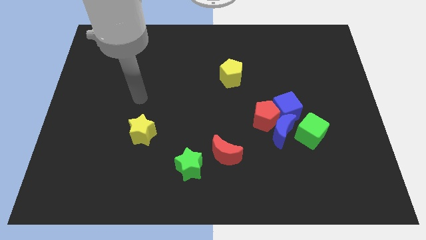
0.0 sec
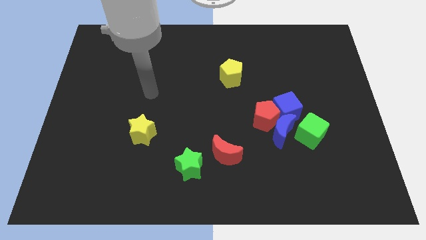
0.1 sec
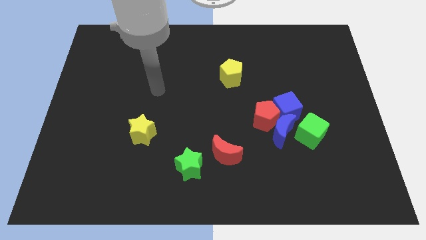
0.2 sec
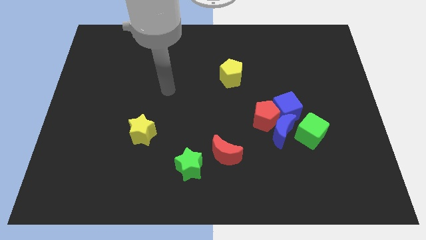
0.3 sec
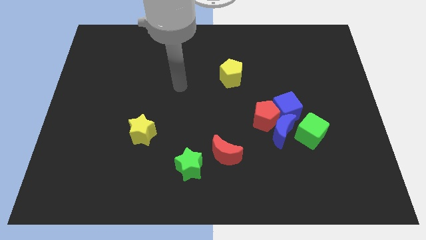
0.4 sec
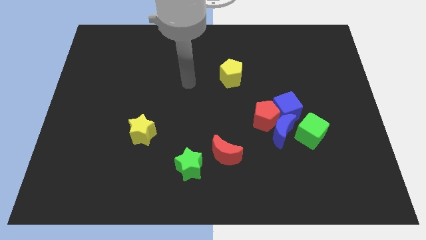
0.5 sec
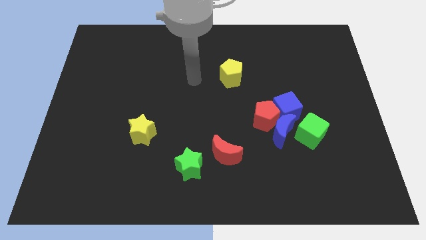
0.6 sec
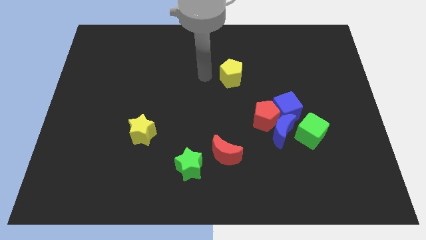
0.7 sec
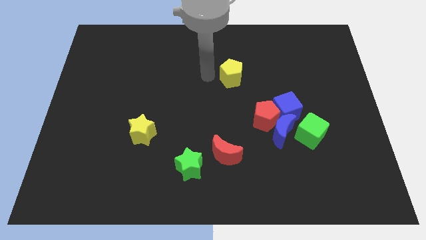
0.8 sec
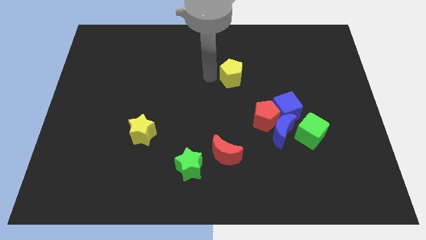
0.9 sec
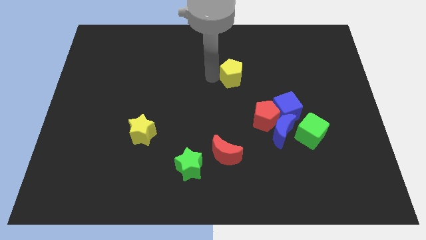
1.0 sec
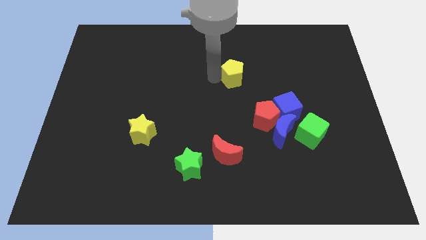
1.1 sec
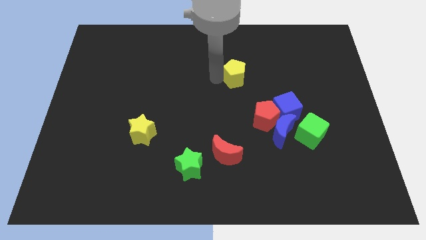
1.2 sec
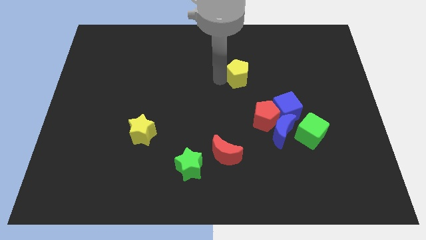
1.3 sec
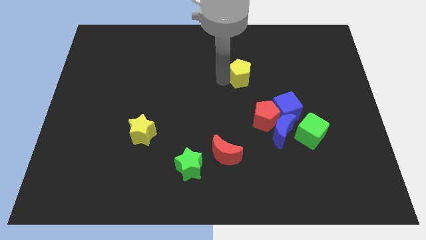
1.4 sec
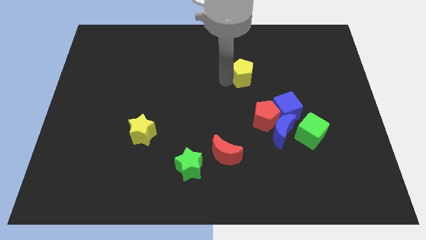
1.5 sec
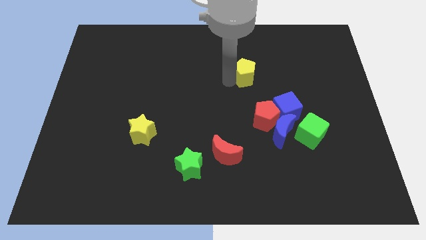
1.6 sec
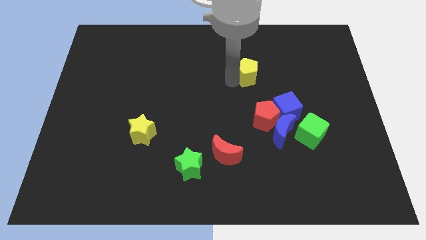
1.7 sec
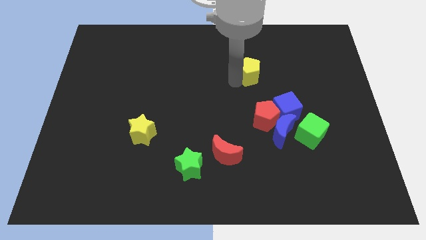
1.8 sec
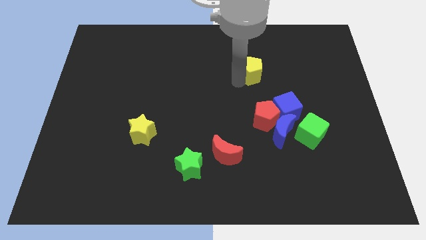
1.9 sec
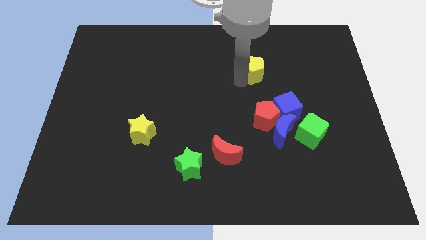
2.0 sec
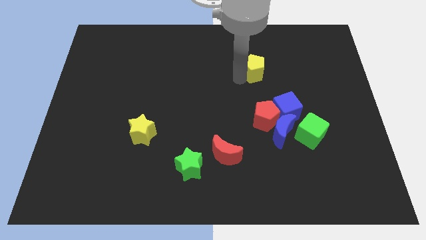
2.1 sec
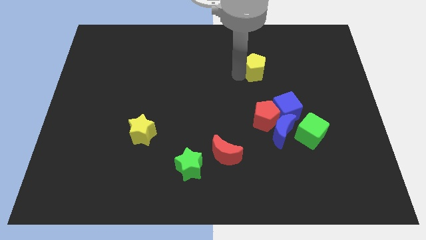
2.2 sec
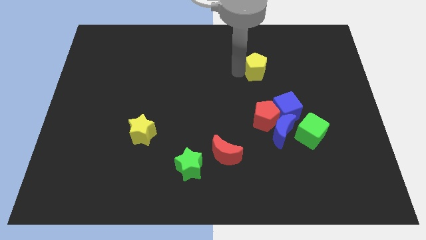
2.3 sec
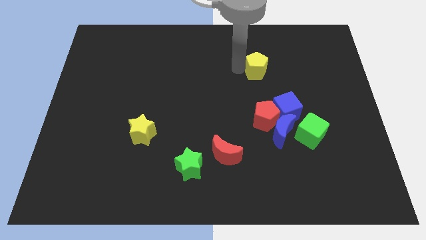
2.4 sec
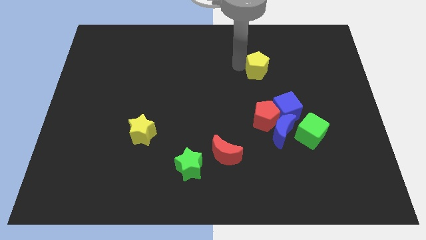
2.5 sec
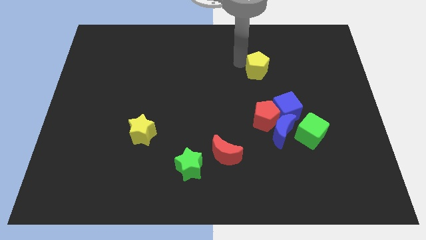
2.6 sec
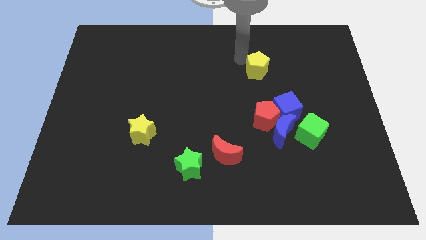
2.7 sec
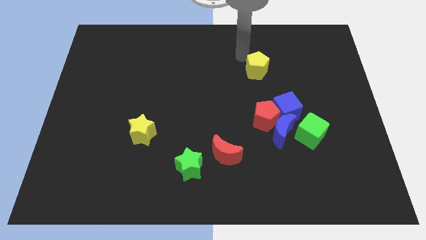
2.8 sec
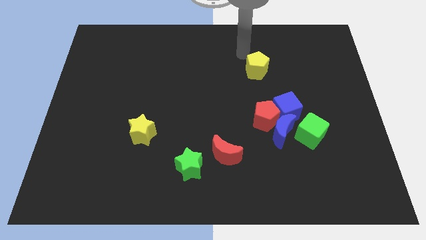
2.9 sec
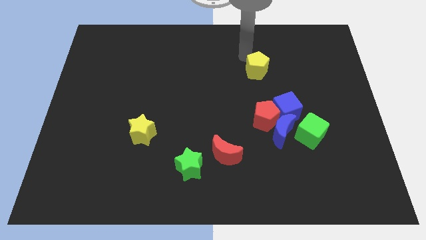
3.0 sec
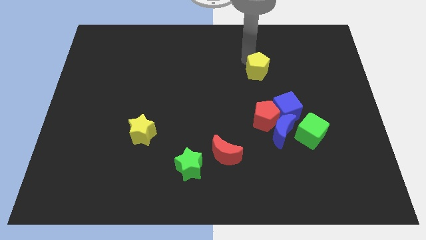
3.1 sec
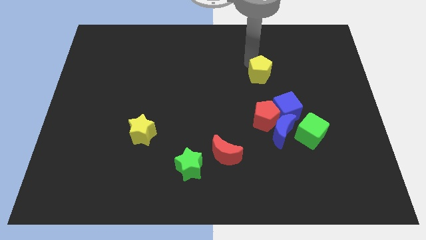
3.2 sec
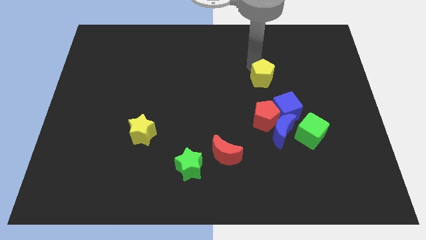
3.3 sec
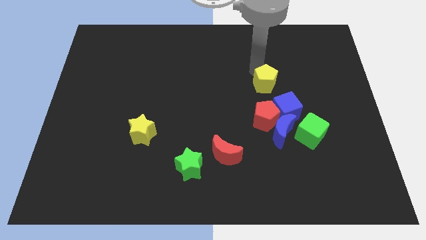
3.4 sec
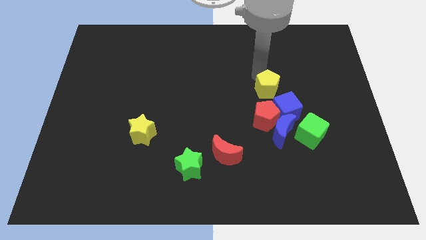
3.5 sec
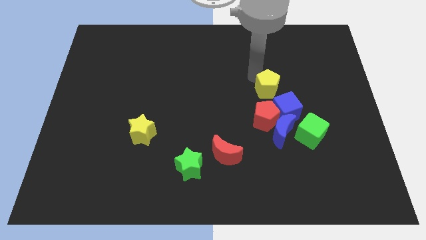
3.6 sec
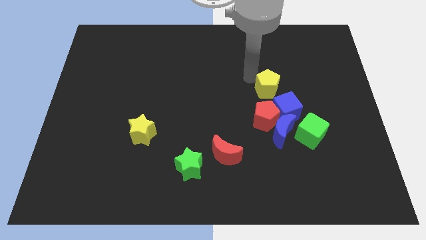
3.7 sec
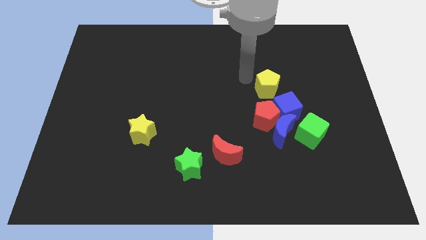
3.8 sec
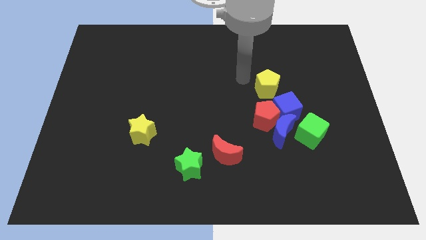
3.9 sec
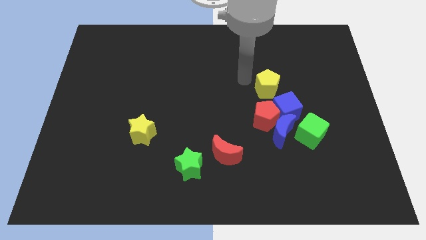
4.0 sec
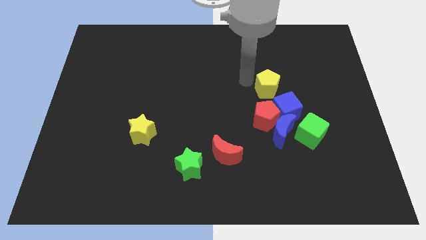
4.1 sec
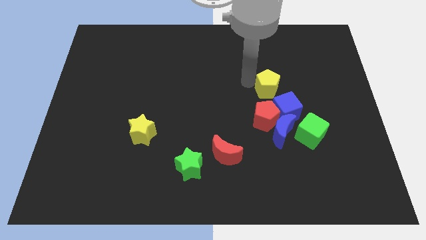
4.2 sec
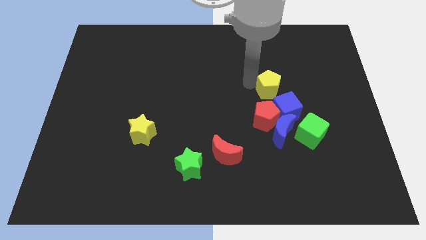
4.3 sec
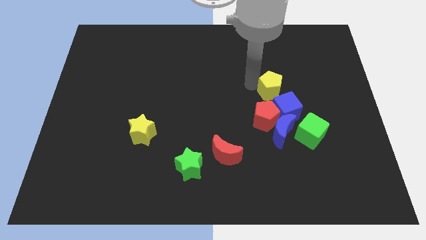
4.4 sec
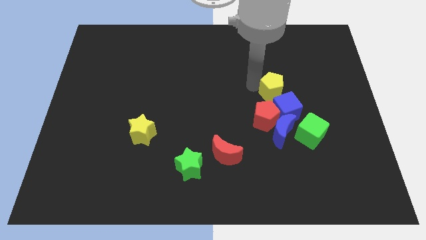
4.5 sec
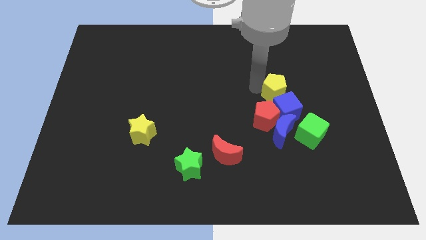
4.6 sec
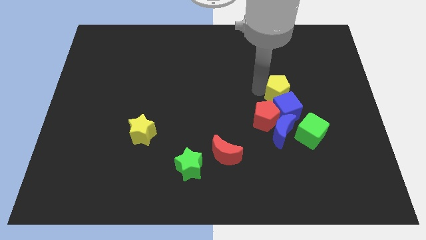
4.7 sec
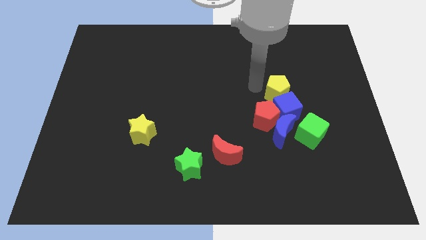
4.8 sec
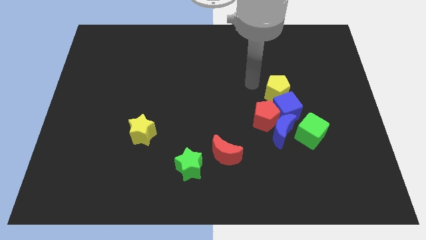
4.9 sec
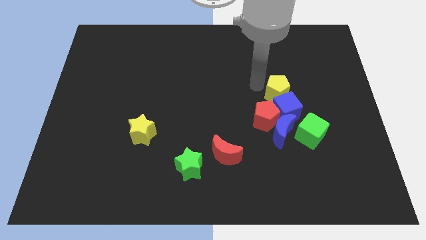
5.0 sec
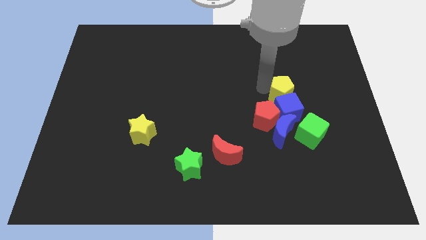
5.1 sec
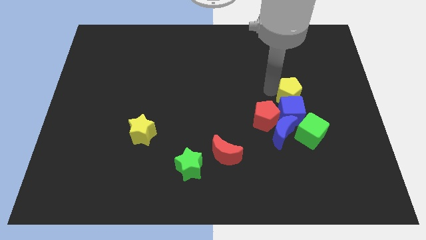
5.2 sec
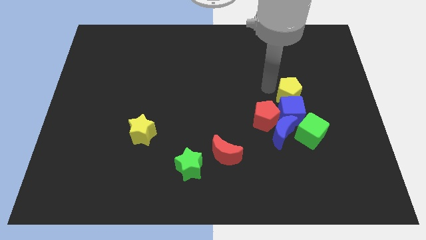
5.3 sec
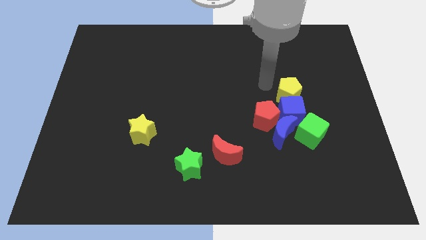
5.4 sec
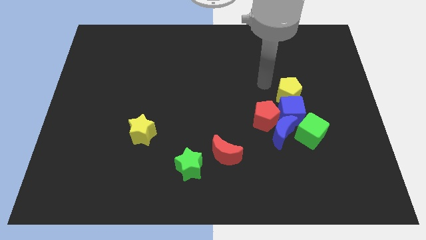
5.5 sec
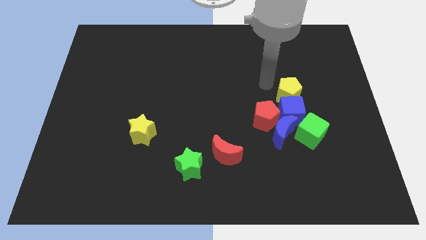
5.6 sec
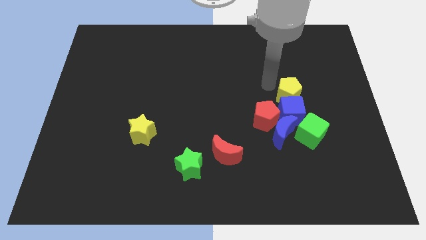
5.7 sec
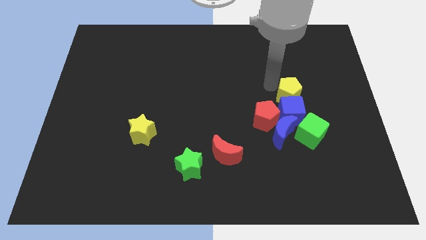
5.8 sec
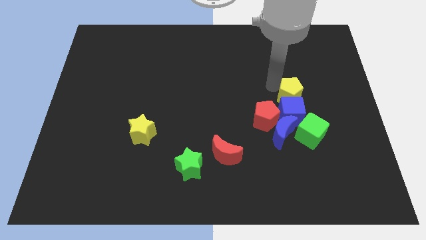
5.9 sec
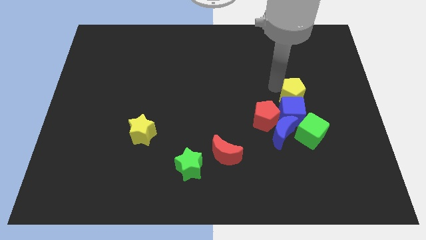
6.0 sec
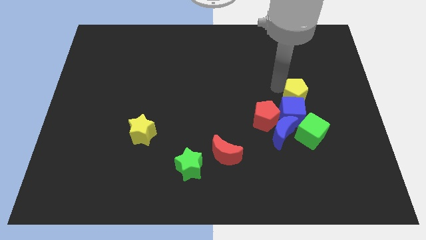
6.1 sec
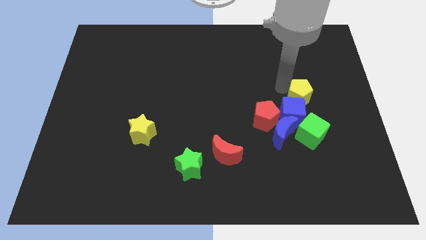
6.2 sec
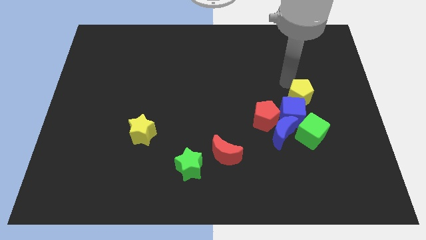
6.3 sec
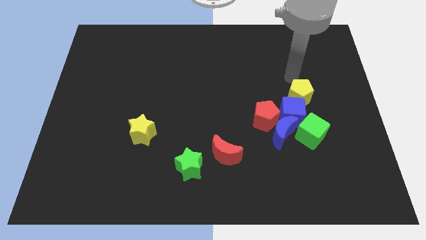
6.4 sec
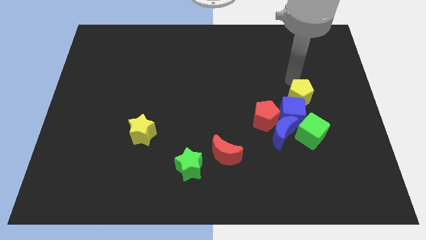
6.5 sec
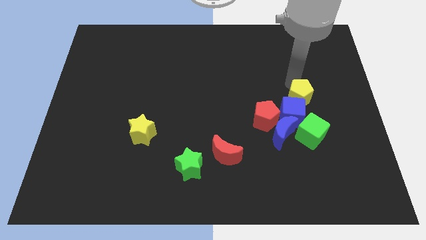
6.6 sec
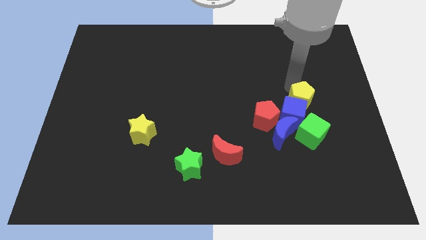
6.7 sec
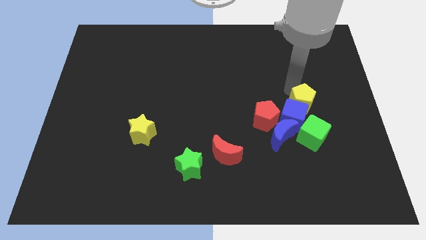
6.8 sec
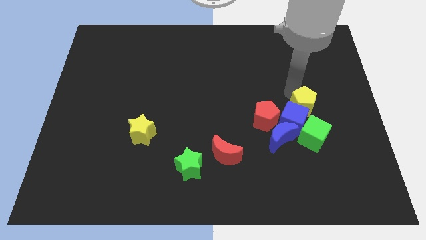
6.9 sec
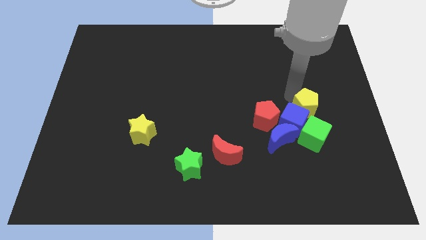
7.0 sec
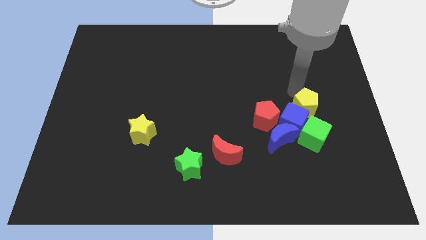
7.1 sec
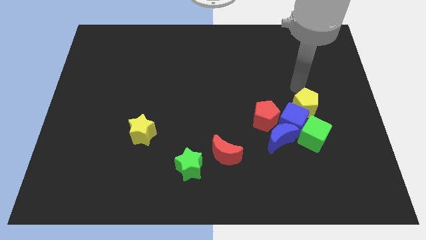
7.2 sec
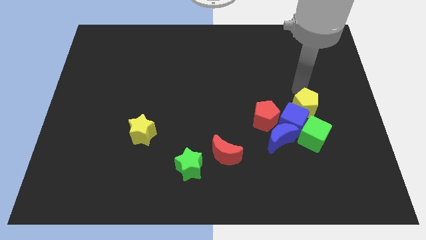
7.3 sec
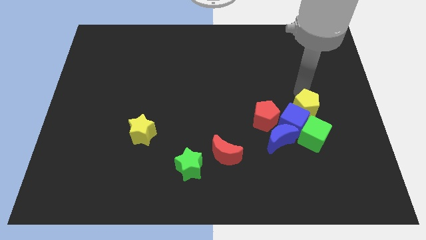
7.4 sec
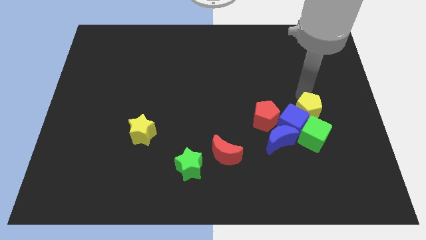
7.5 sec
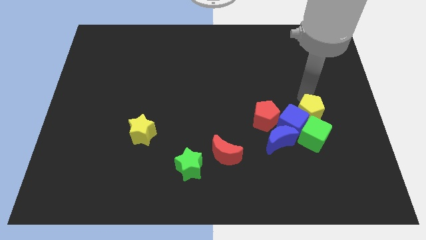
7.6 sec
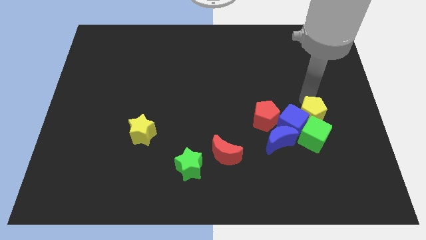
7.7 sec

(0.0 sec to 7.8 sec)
push the yellow pentagon to the green cube
